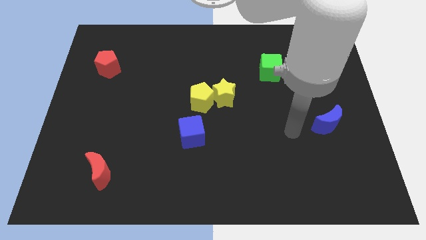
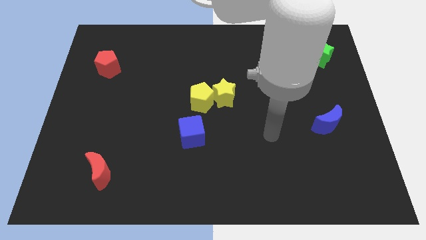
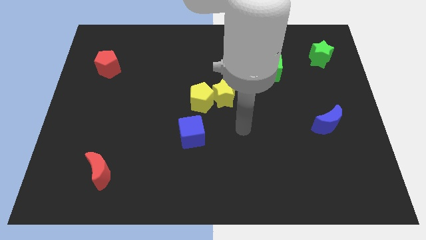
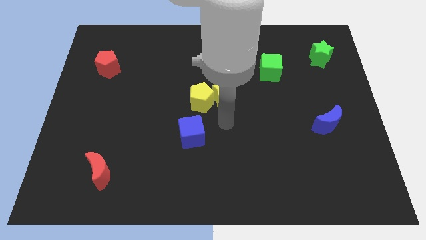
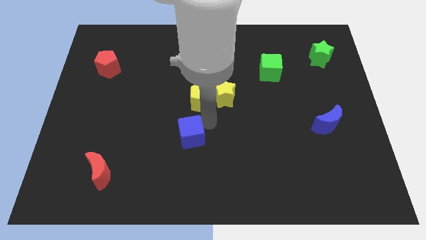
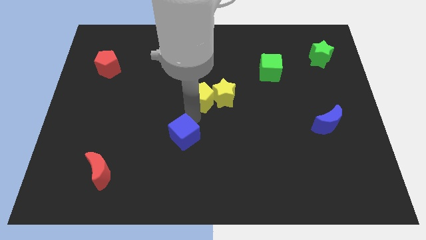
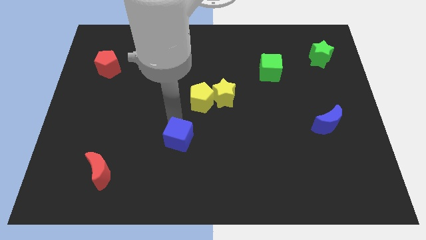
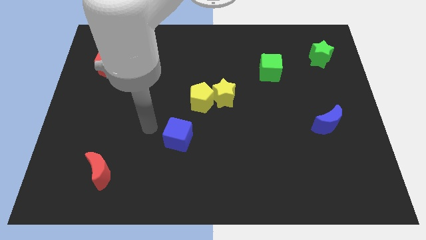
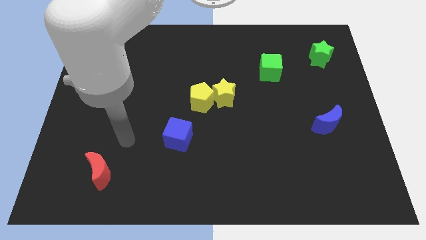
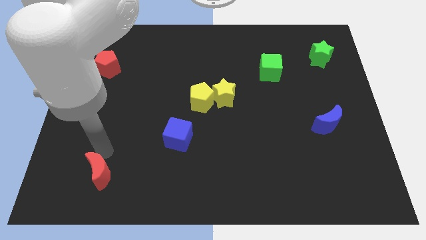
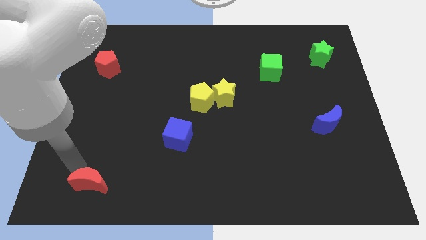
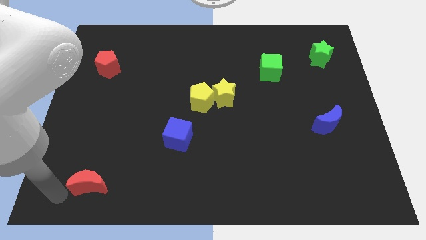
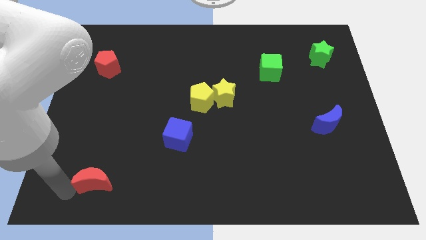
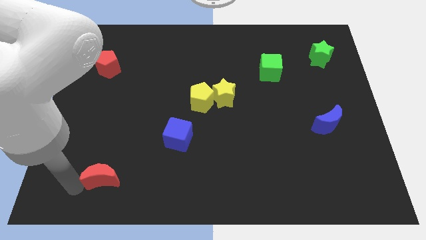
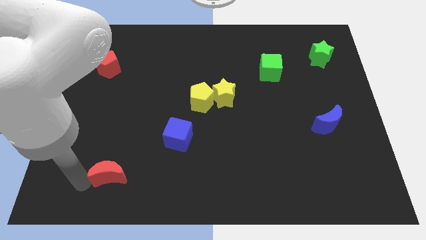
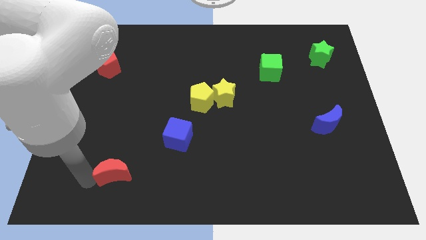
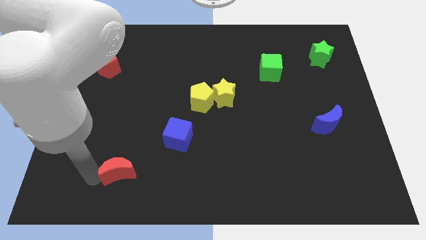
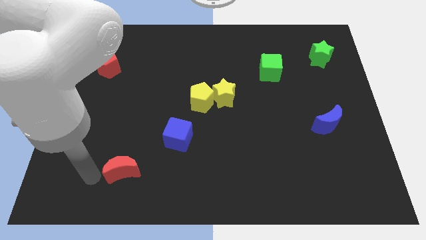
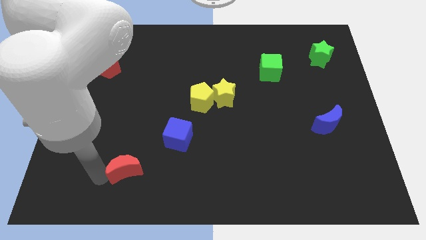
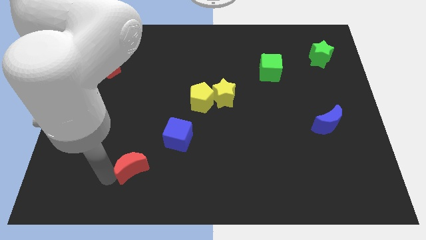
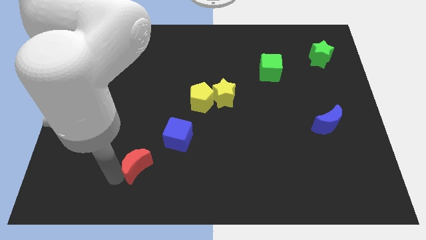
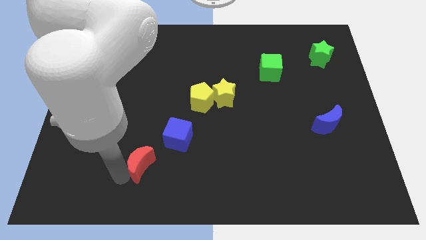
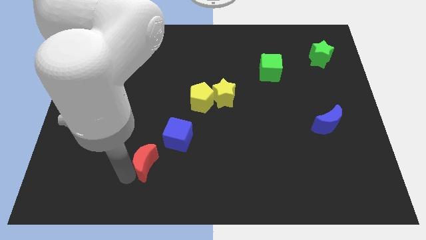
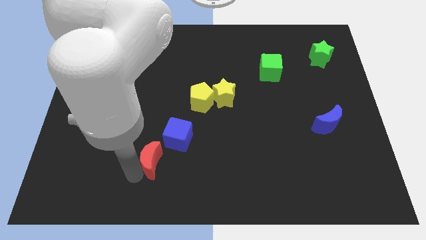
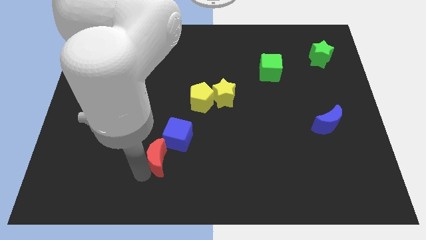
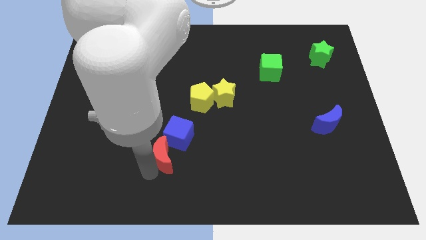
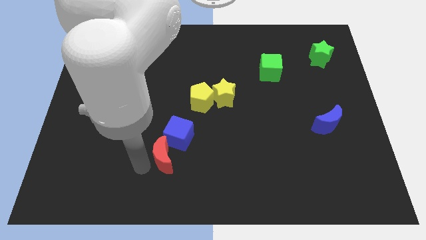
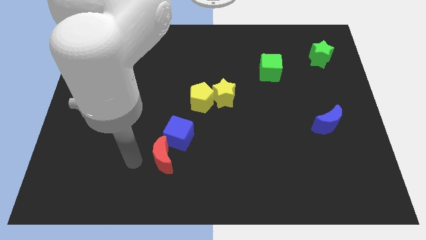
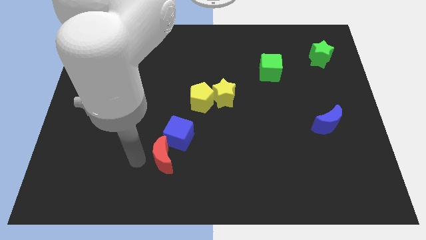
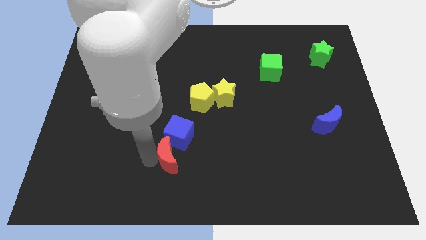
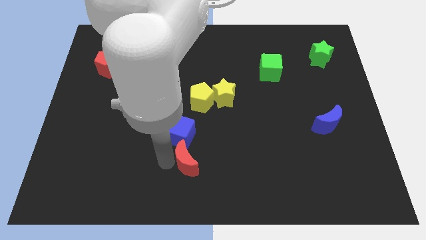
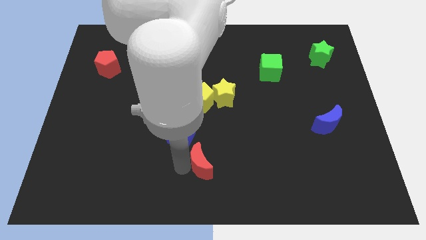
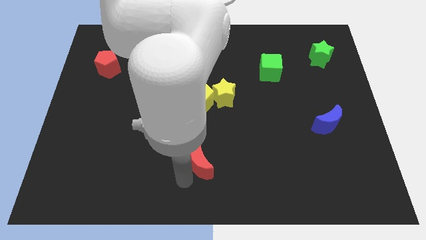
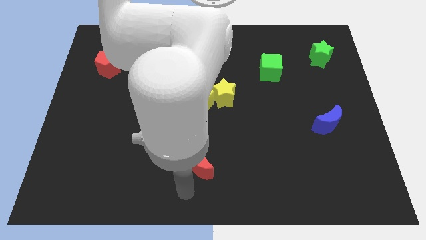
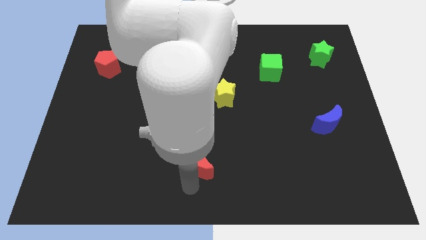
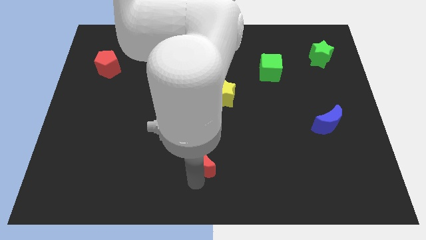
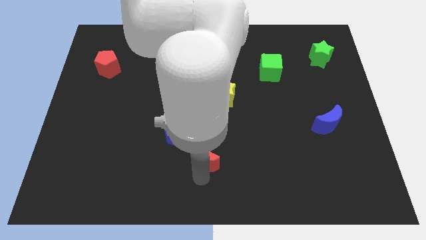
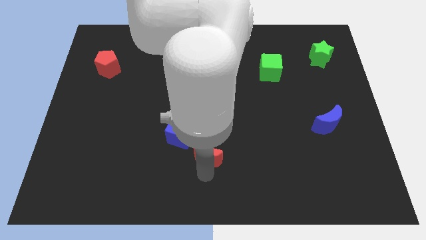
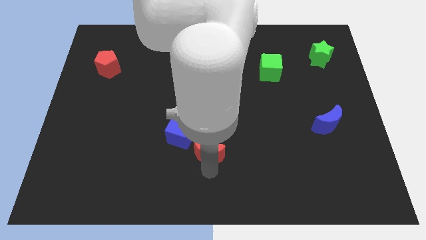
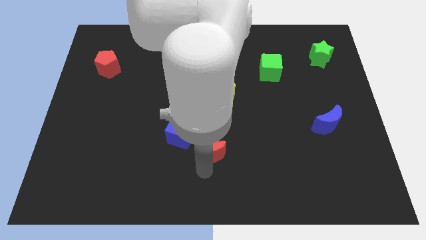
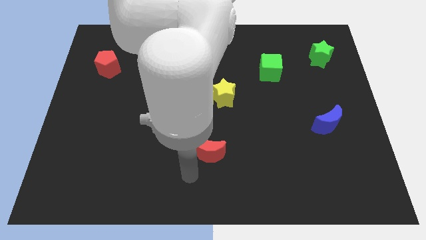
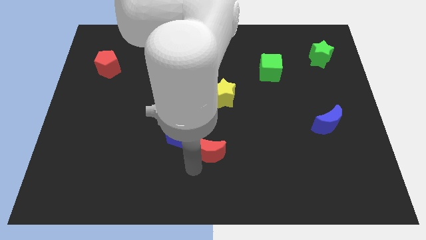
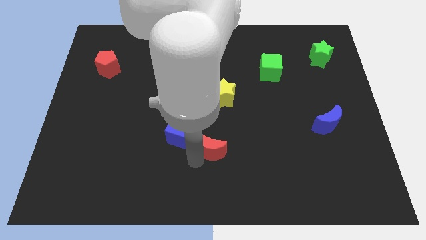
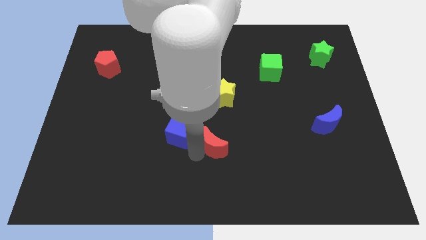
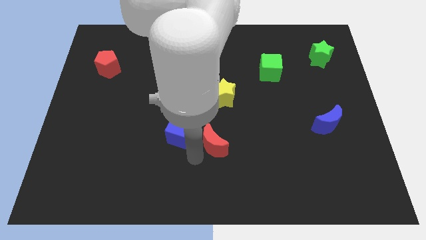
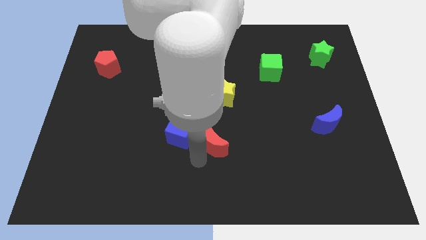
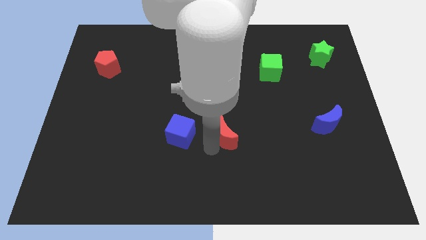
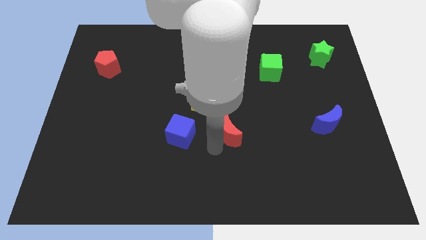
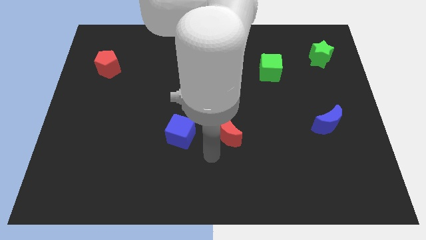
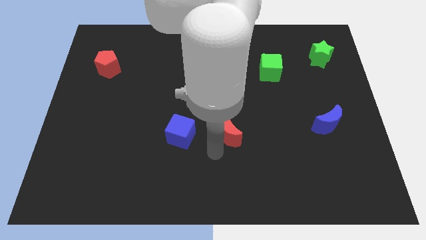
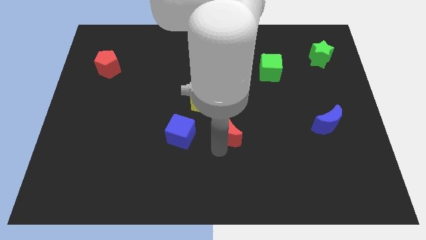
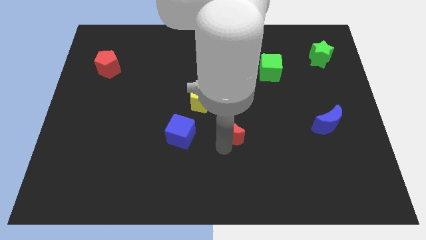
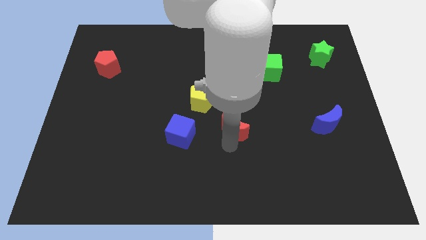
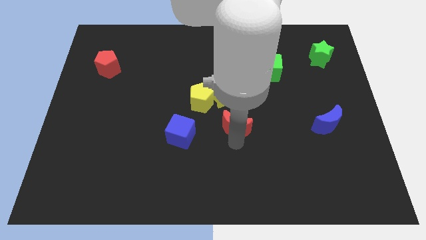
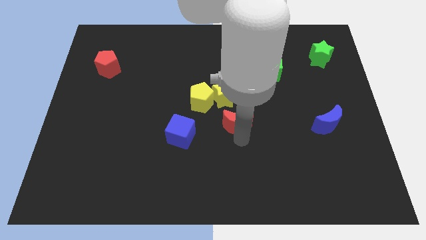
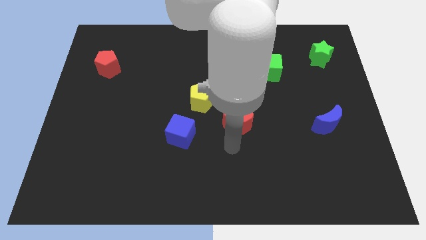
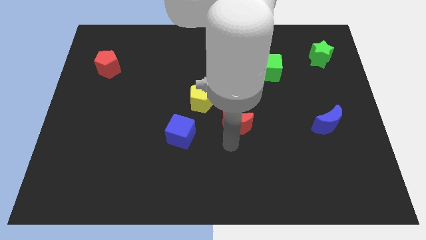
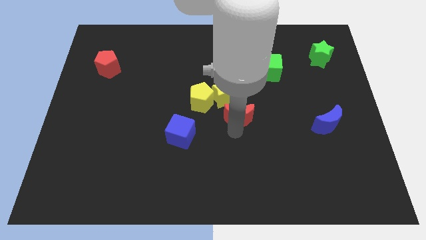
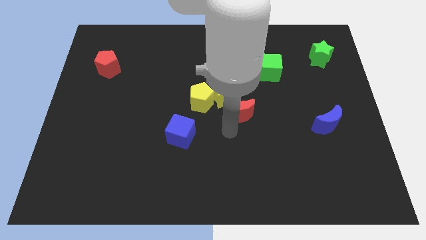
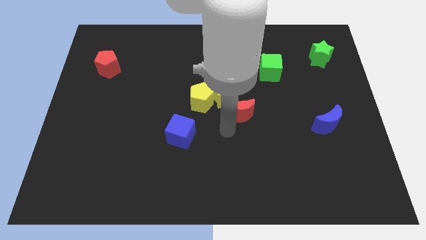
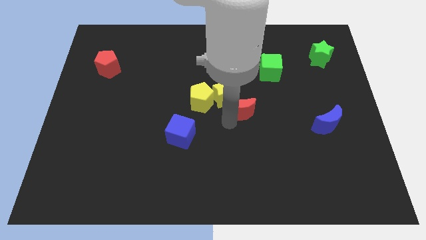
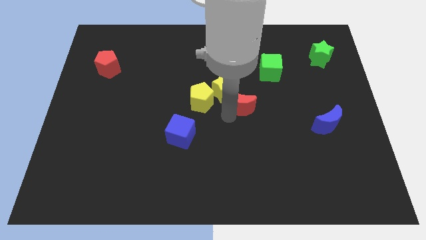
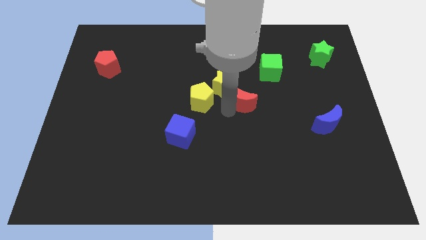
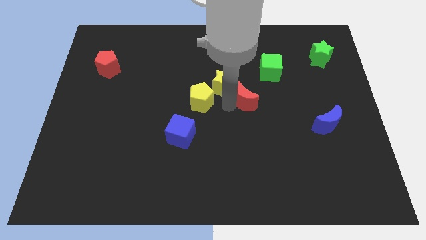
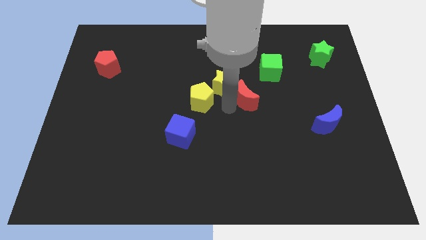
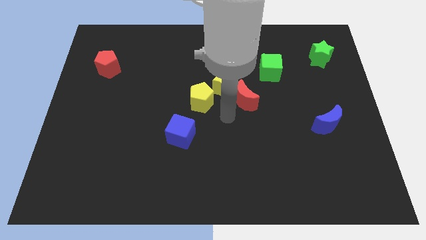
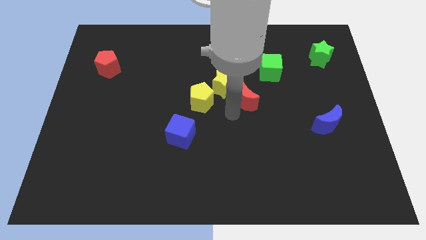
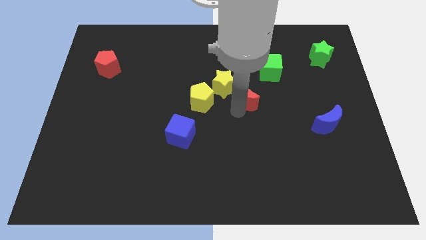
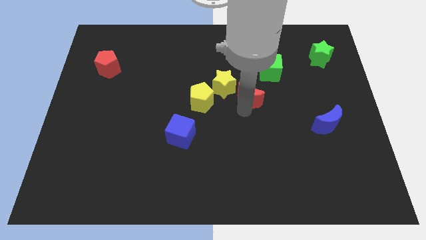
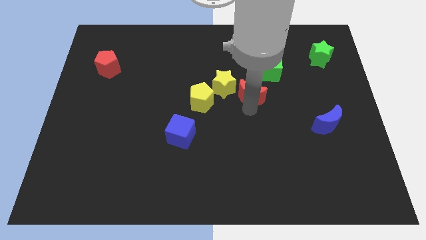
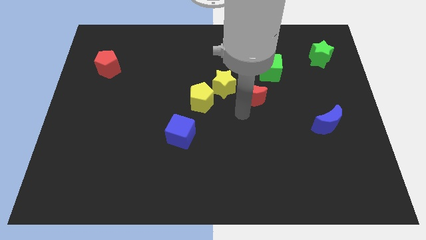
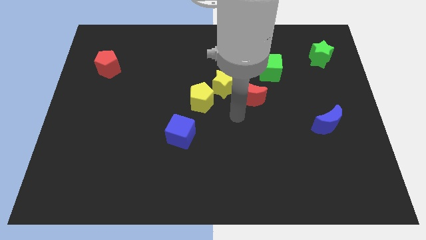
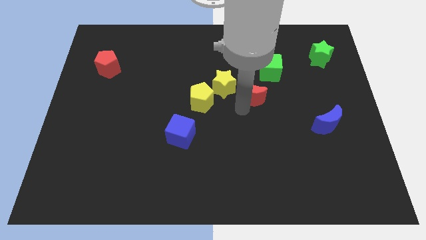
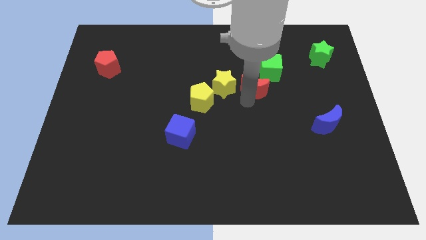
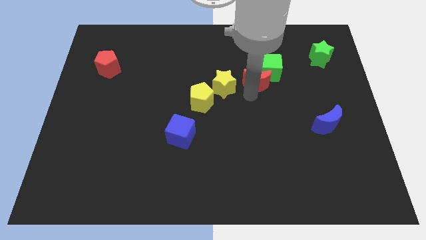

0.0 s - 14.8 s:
push the red moon close to the green cube

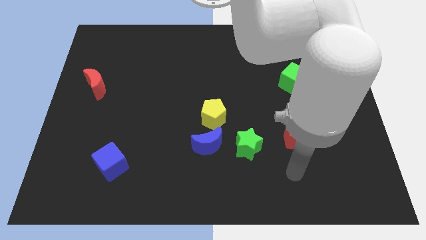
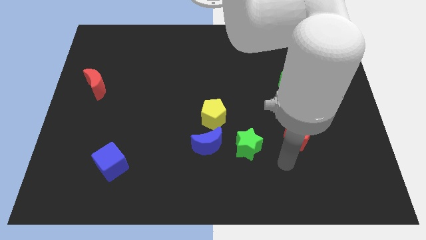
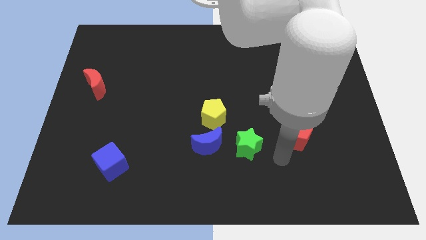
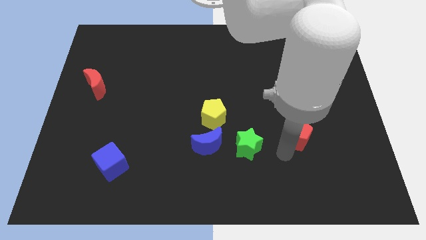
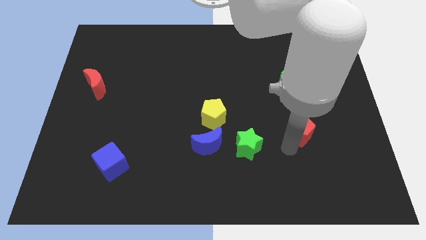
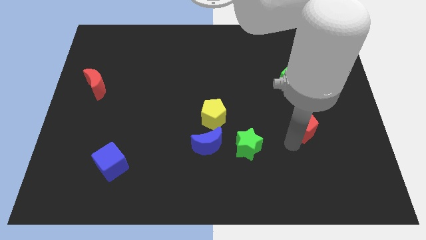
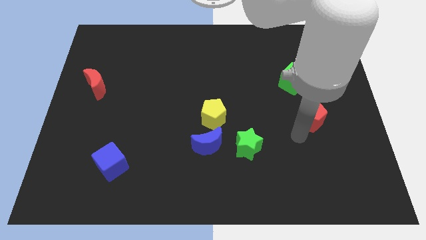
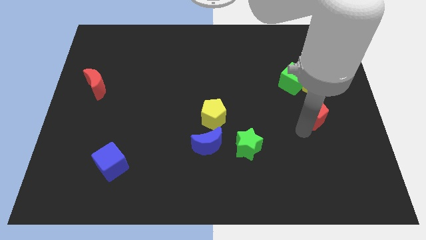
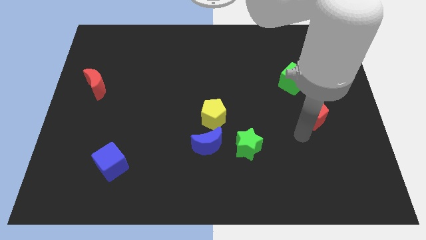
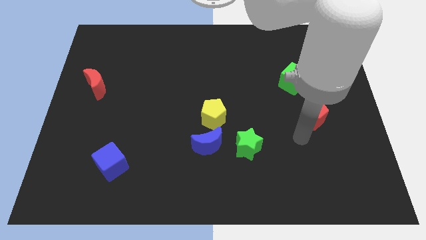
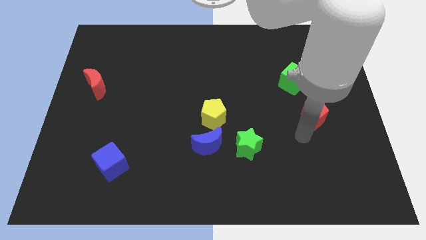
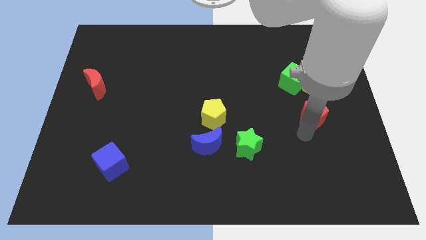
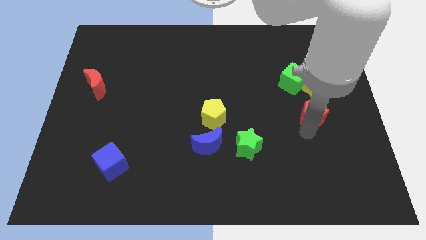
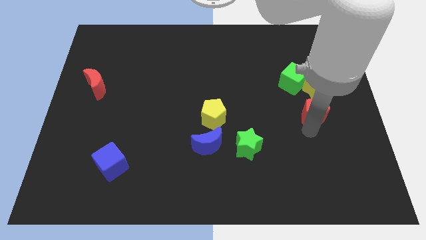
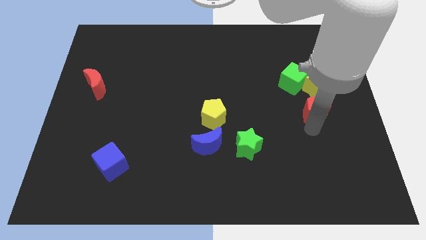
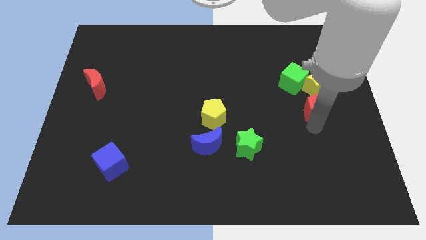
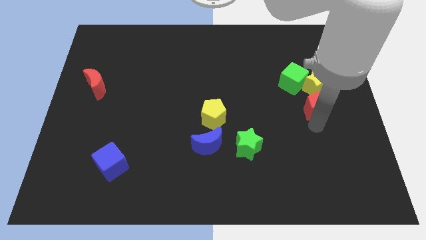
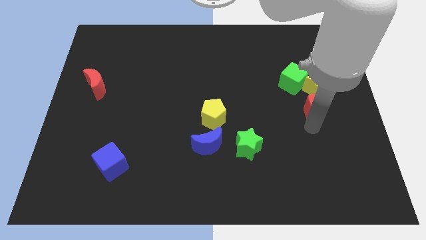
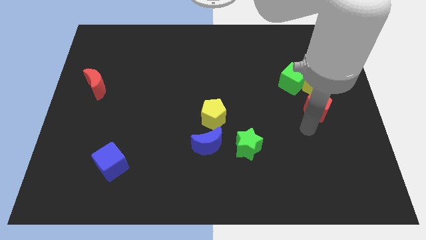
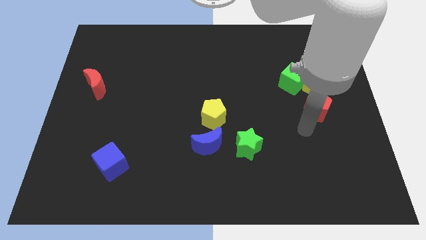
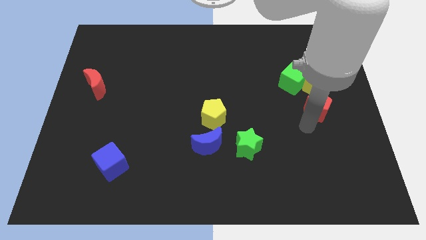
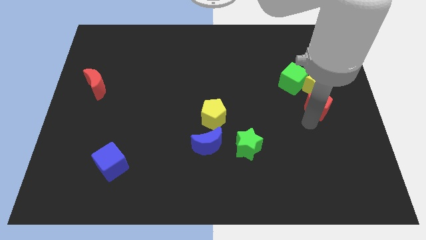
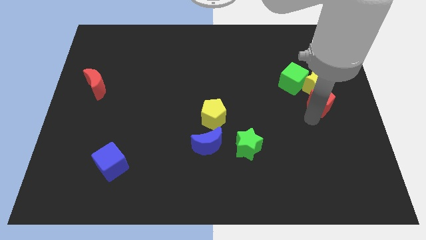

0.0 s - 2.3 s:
slide the red pentagon to the yellow star
